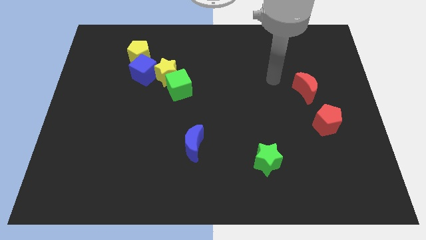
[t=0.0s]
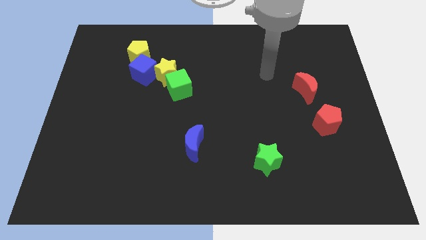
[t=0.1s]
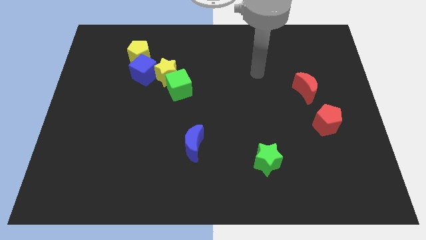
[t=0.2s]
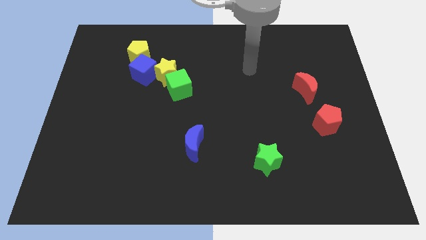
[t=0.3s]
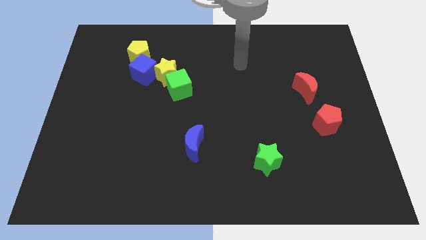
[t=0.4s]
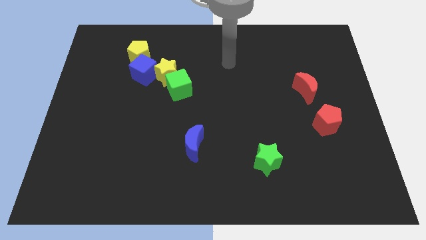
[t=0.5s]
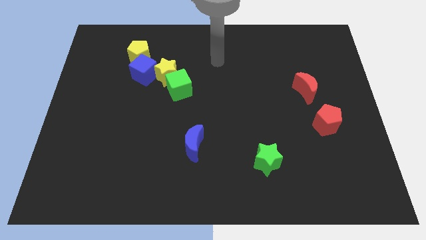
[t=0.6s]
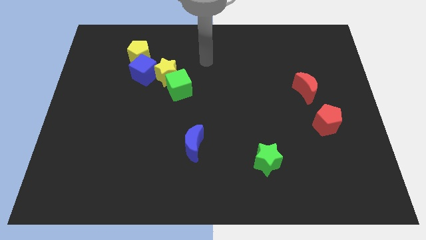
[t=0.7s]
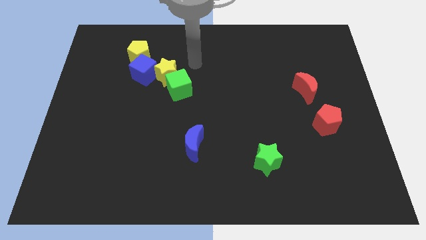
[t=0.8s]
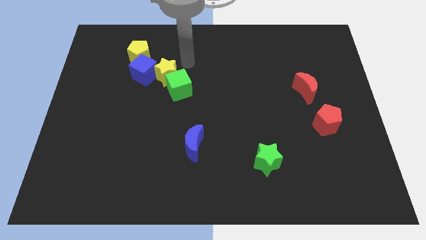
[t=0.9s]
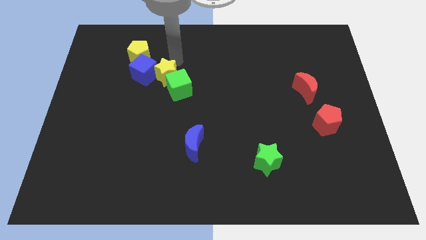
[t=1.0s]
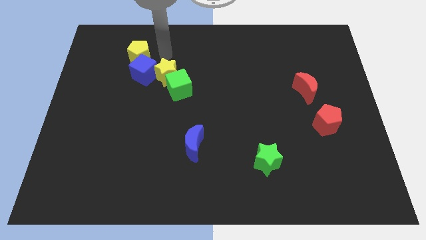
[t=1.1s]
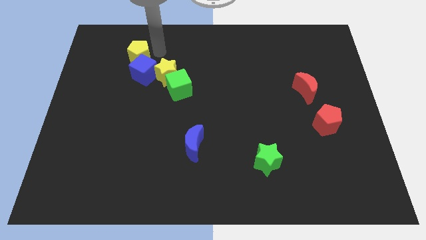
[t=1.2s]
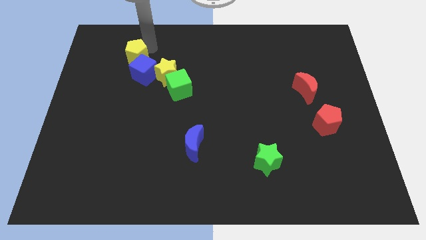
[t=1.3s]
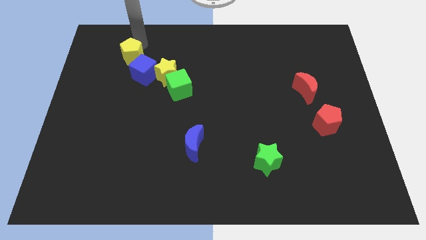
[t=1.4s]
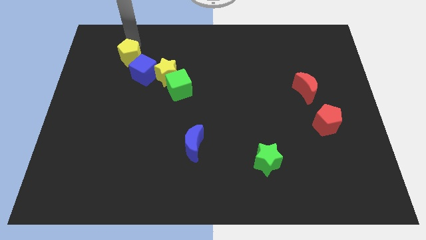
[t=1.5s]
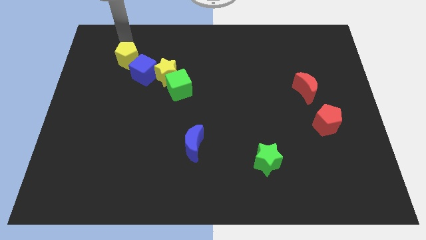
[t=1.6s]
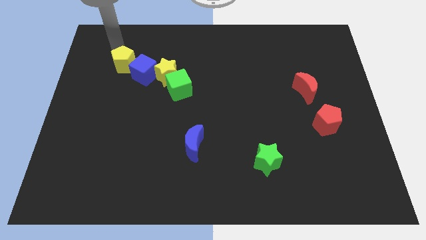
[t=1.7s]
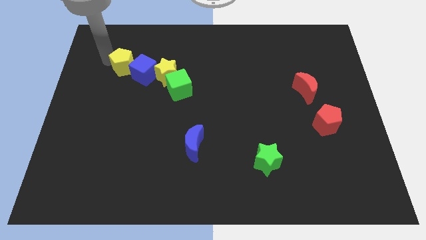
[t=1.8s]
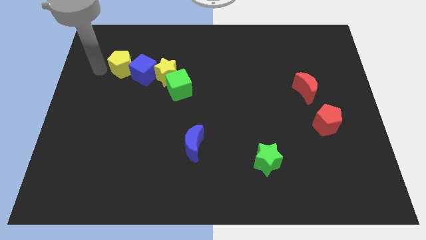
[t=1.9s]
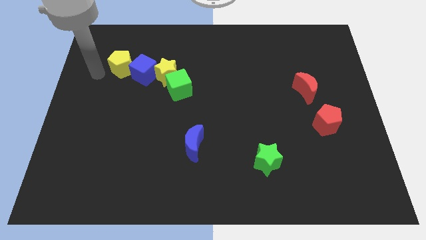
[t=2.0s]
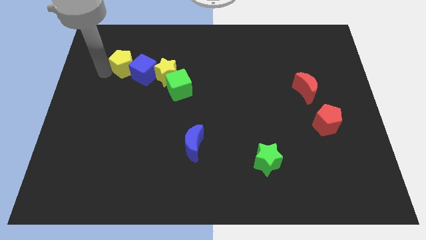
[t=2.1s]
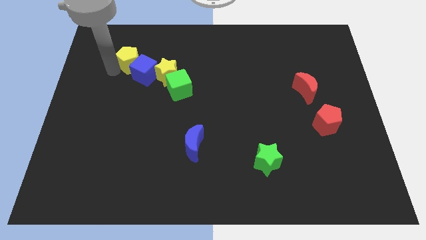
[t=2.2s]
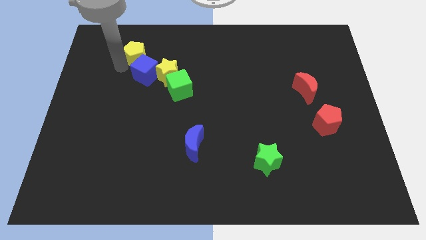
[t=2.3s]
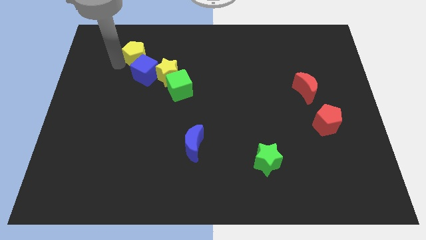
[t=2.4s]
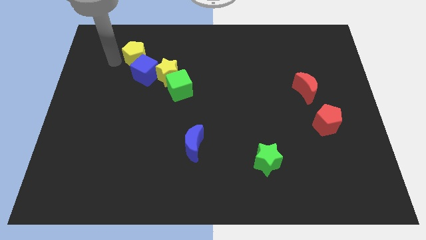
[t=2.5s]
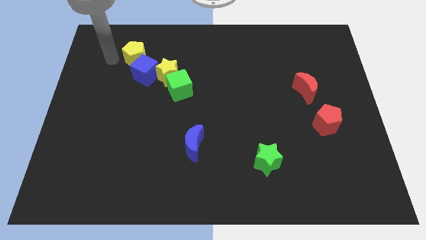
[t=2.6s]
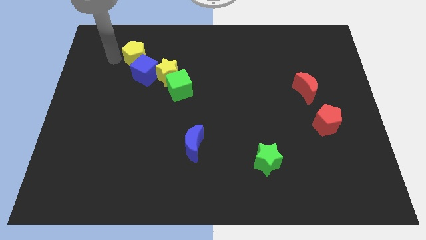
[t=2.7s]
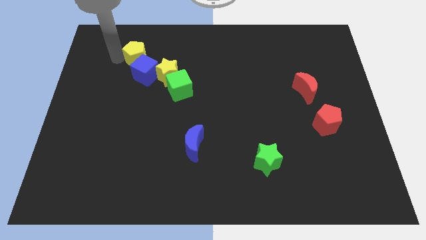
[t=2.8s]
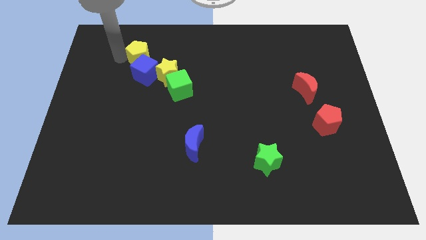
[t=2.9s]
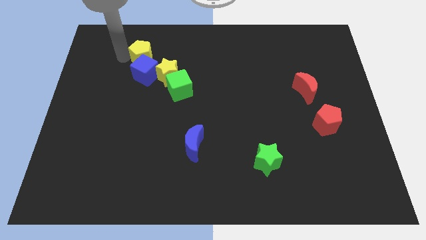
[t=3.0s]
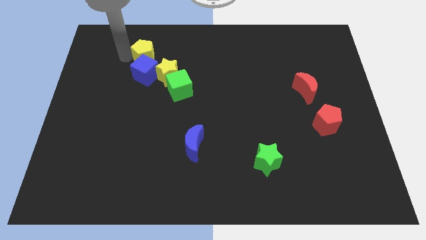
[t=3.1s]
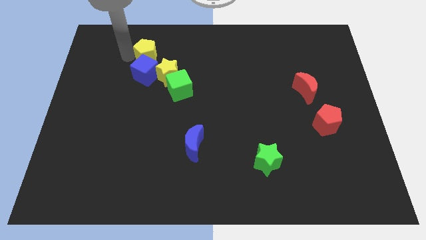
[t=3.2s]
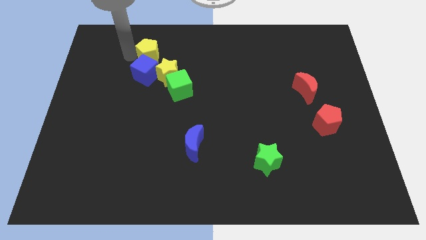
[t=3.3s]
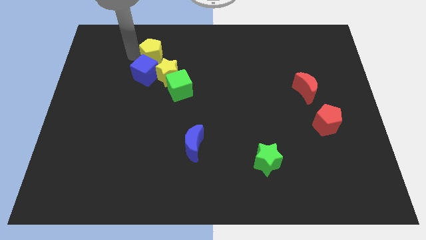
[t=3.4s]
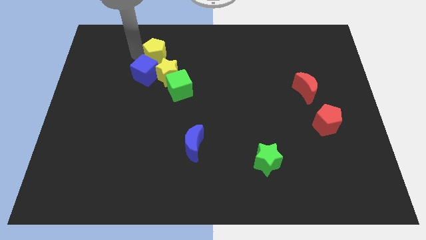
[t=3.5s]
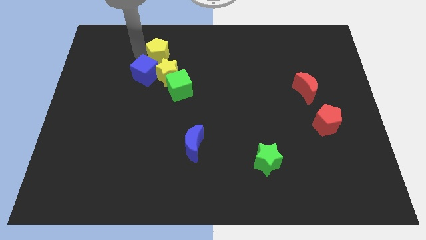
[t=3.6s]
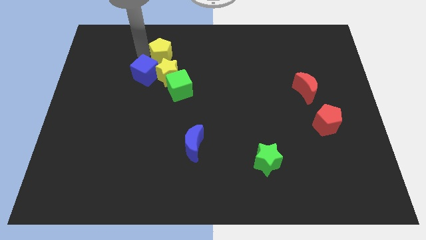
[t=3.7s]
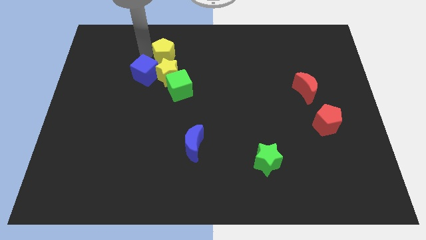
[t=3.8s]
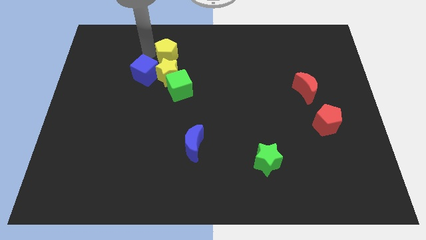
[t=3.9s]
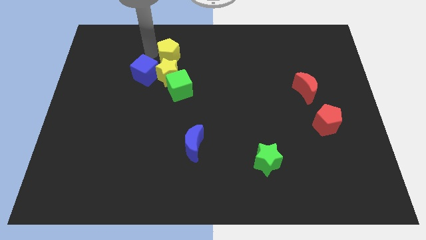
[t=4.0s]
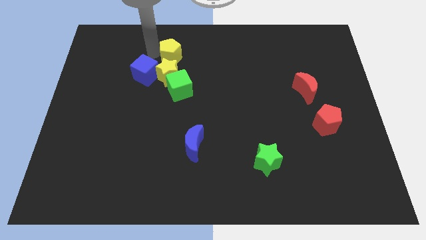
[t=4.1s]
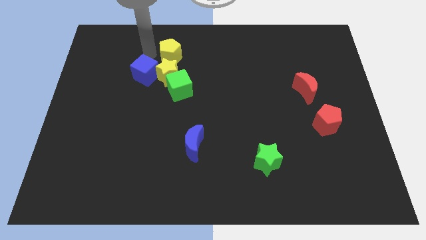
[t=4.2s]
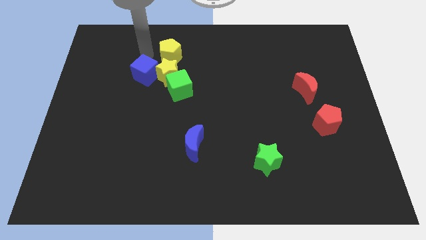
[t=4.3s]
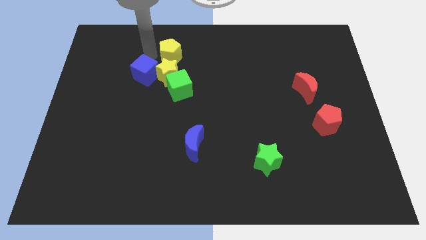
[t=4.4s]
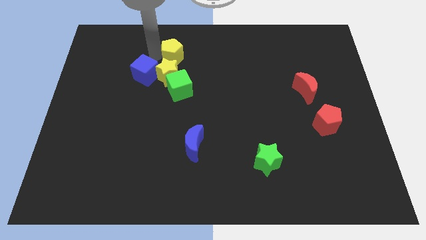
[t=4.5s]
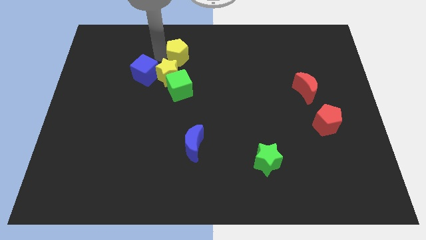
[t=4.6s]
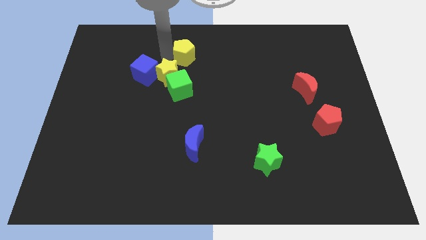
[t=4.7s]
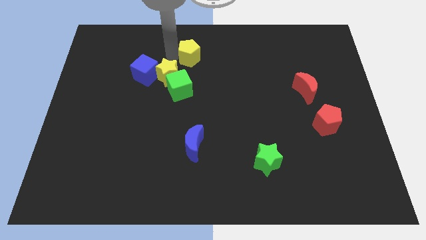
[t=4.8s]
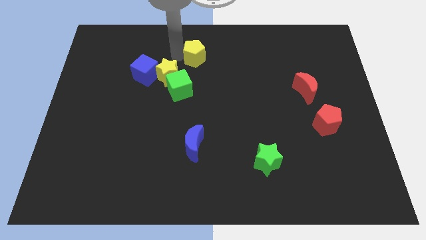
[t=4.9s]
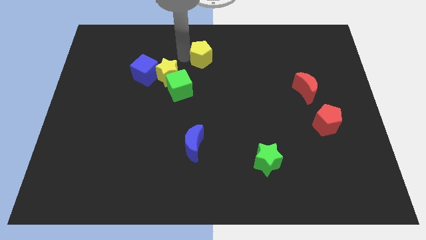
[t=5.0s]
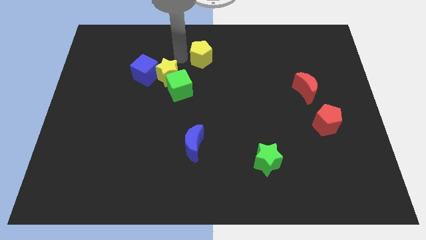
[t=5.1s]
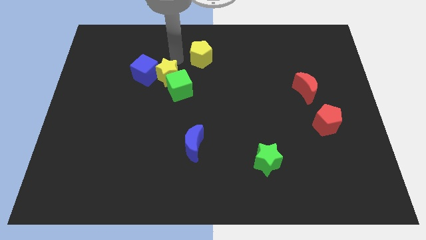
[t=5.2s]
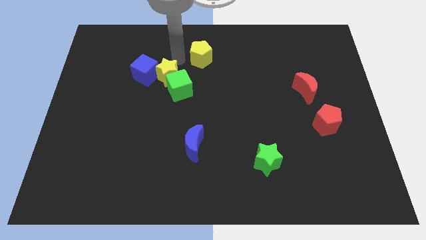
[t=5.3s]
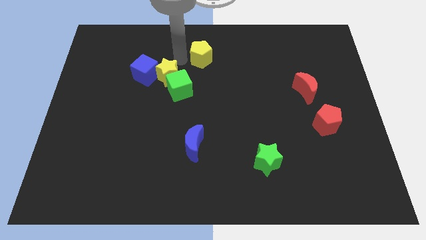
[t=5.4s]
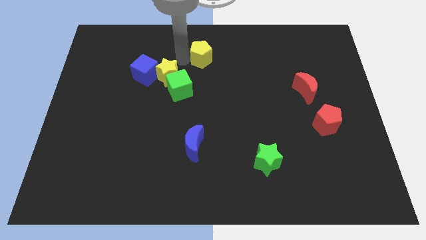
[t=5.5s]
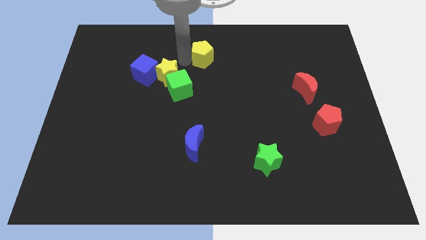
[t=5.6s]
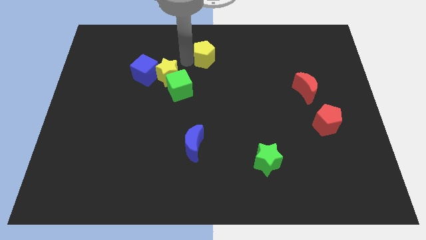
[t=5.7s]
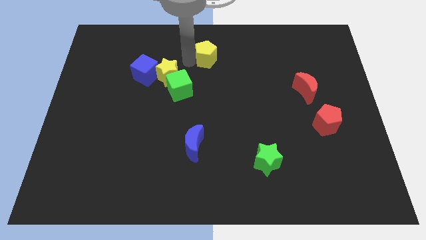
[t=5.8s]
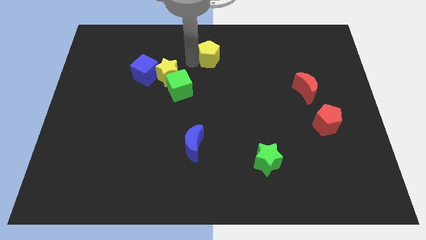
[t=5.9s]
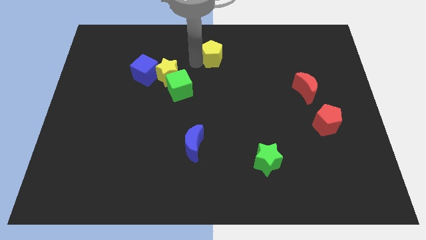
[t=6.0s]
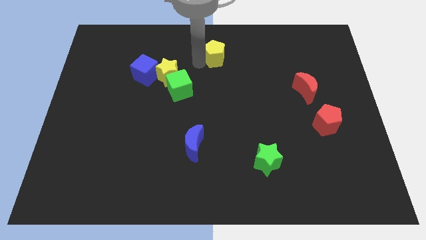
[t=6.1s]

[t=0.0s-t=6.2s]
slide the yellow pentagon right

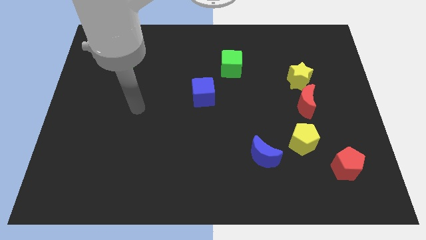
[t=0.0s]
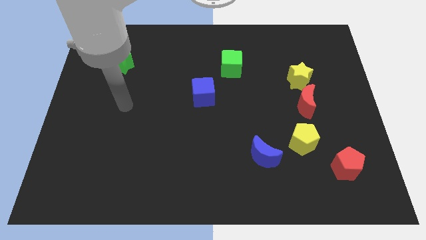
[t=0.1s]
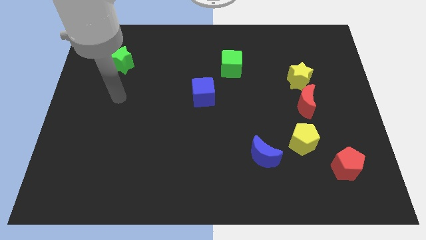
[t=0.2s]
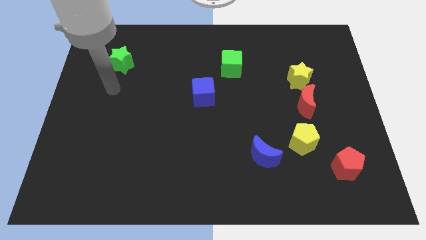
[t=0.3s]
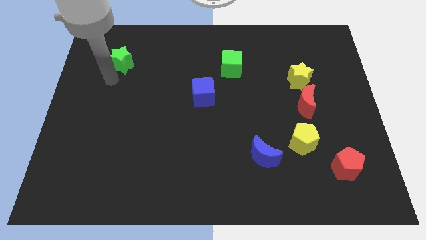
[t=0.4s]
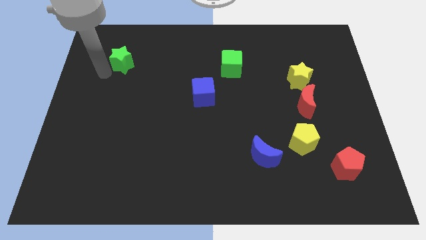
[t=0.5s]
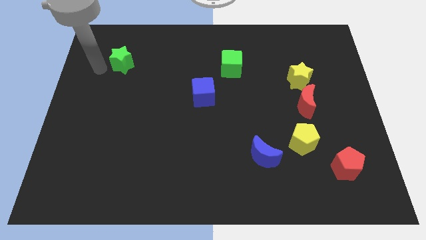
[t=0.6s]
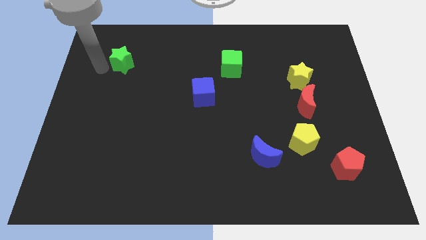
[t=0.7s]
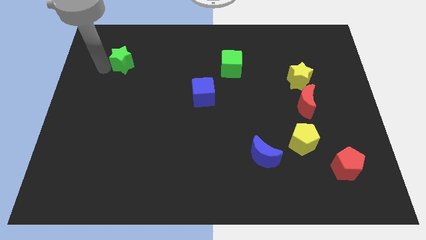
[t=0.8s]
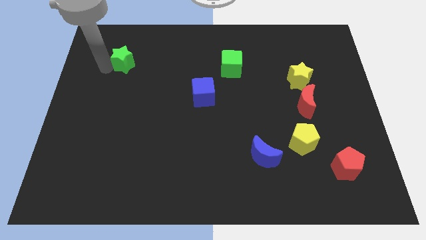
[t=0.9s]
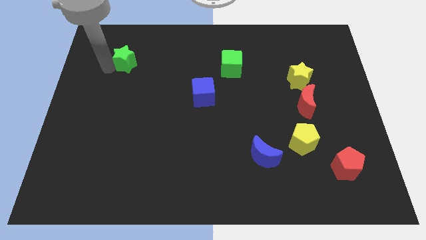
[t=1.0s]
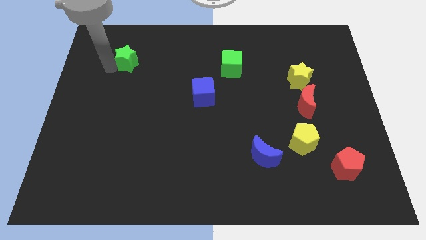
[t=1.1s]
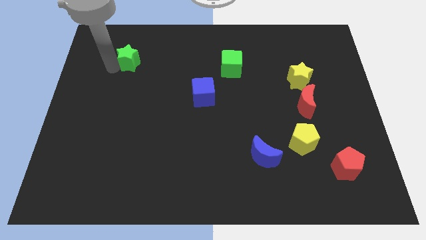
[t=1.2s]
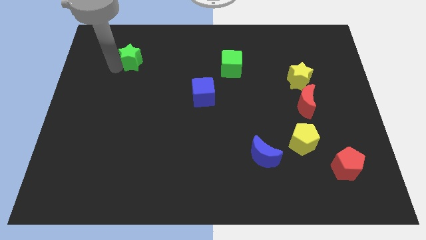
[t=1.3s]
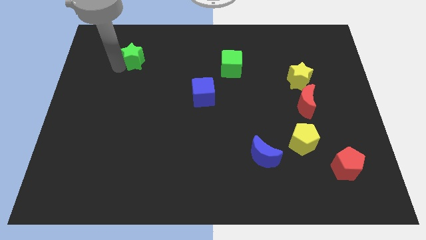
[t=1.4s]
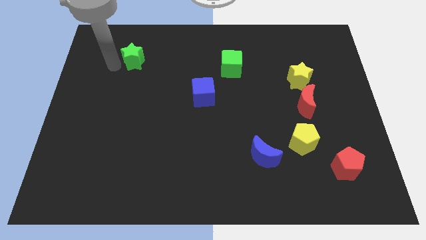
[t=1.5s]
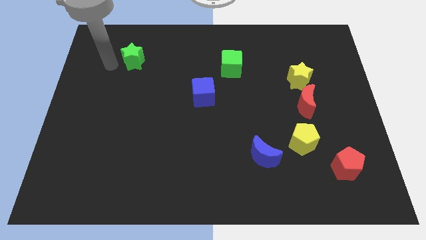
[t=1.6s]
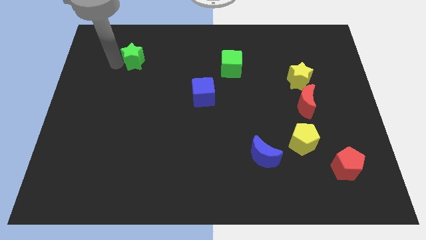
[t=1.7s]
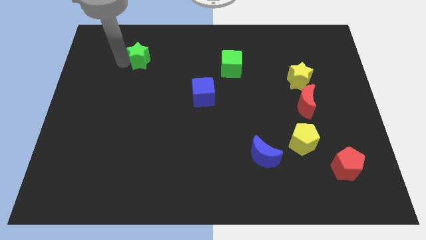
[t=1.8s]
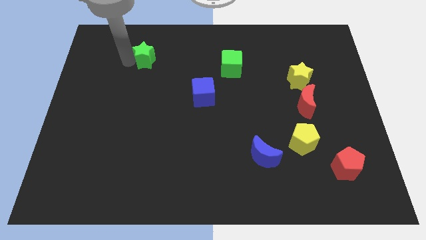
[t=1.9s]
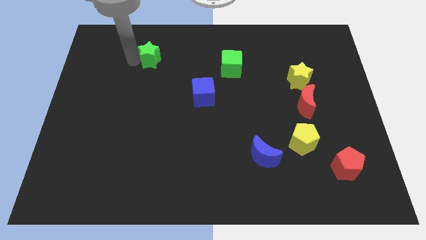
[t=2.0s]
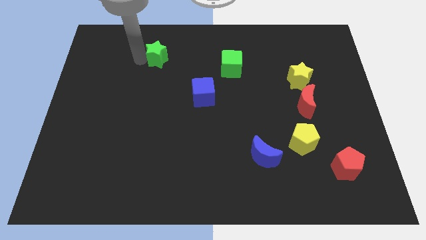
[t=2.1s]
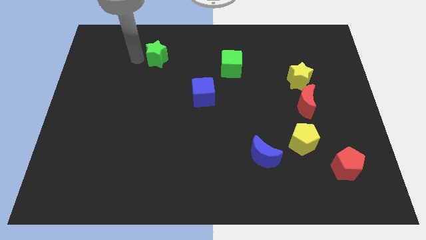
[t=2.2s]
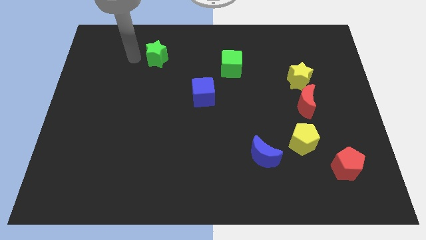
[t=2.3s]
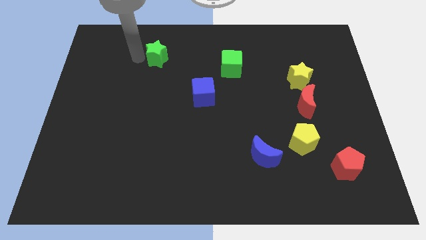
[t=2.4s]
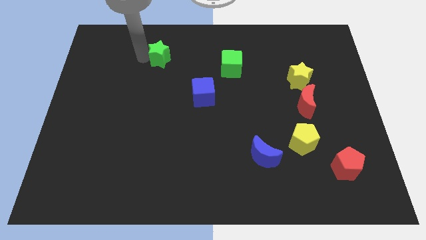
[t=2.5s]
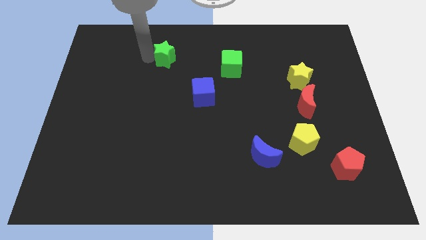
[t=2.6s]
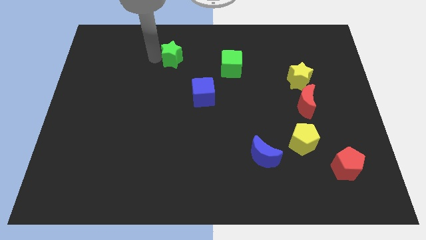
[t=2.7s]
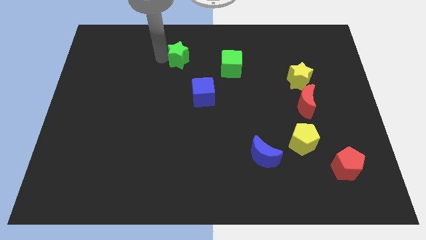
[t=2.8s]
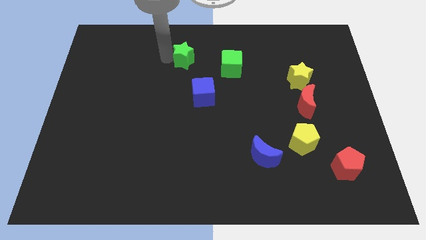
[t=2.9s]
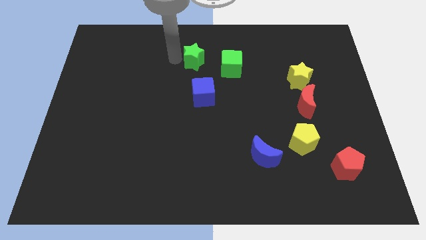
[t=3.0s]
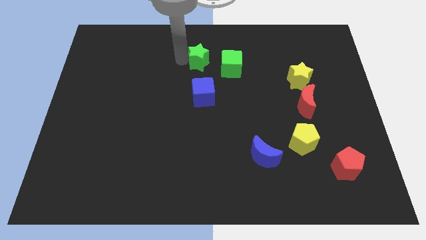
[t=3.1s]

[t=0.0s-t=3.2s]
move the green star right
